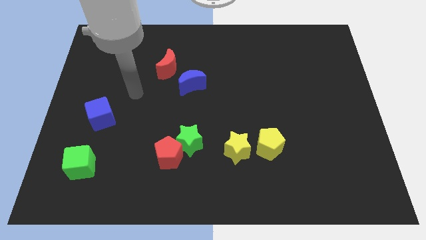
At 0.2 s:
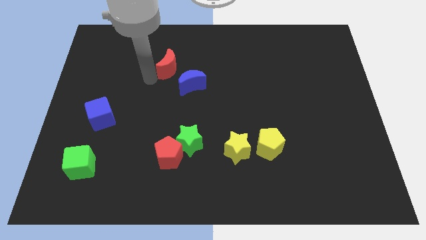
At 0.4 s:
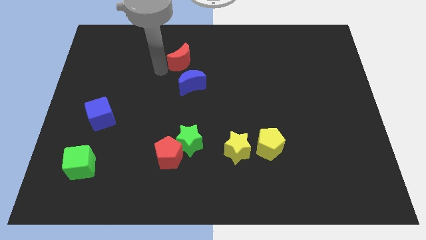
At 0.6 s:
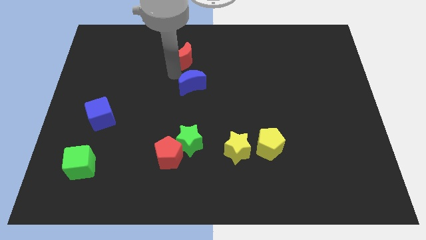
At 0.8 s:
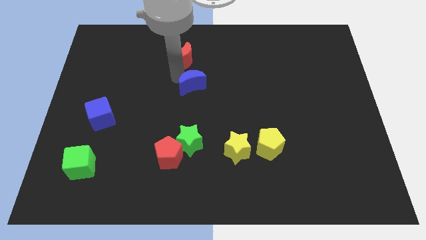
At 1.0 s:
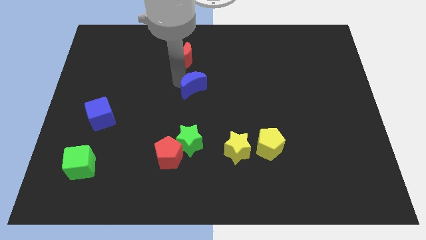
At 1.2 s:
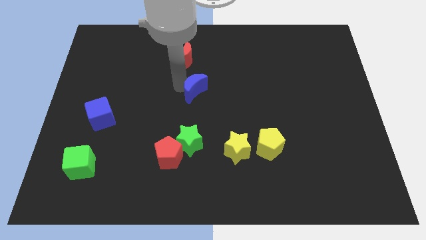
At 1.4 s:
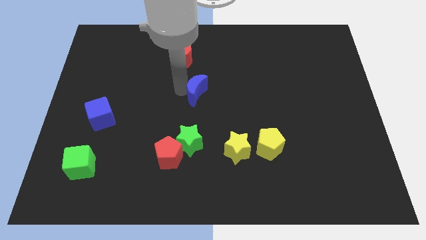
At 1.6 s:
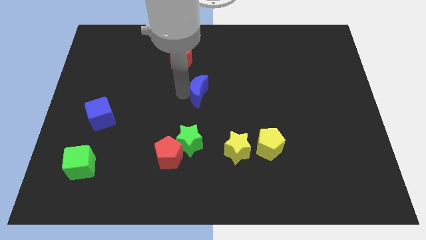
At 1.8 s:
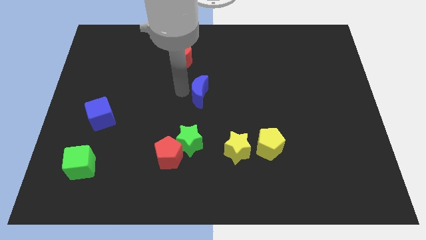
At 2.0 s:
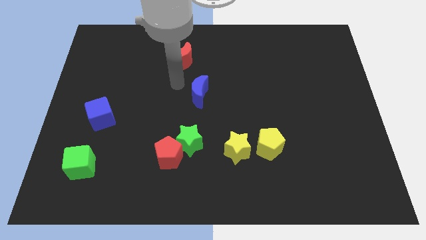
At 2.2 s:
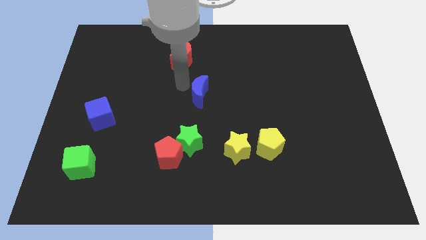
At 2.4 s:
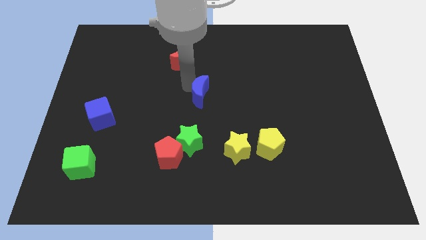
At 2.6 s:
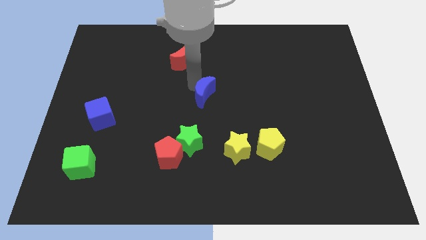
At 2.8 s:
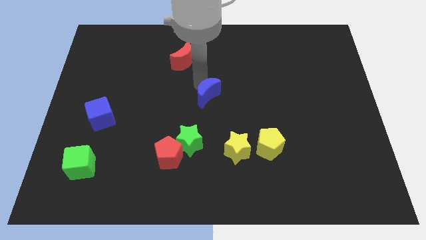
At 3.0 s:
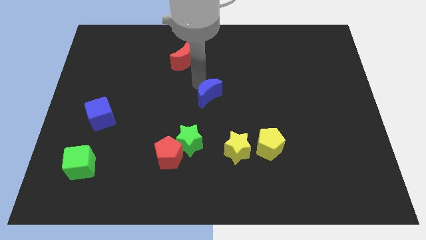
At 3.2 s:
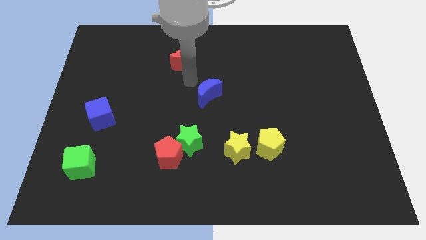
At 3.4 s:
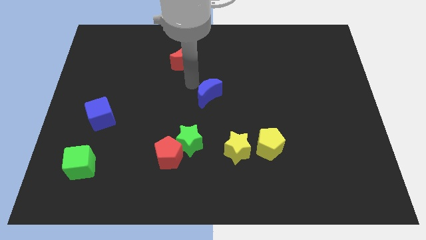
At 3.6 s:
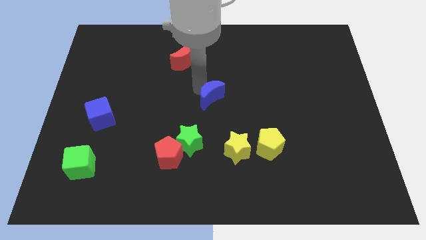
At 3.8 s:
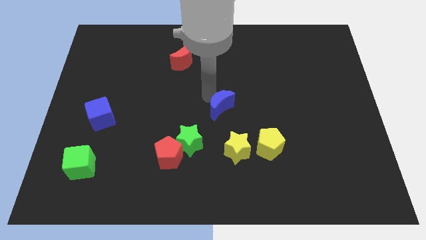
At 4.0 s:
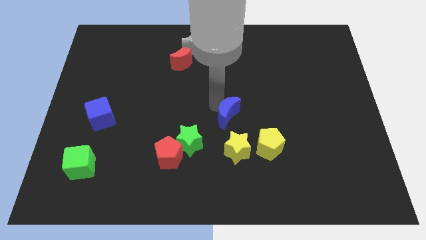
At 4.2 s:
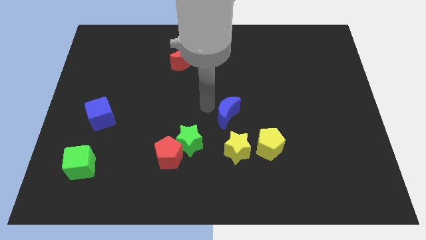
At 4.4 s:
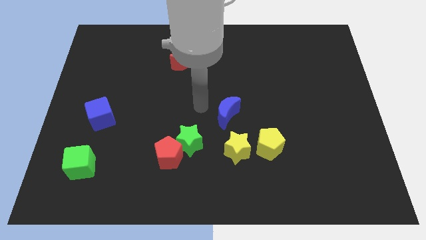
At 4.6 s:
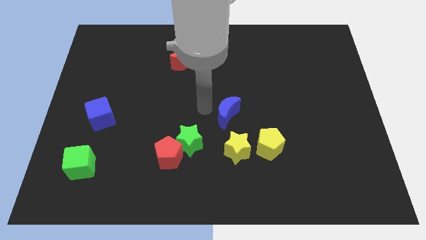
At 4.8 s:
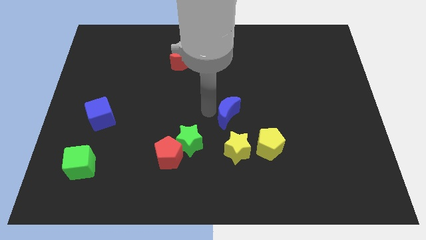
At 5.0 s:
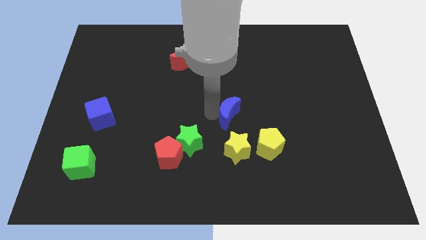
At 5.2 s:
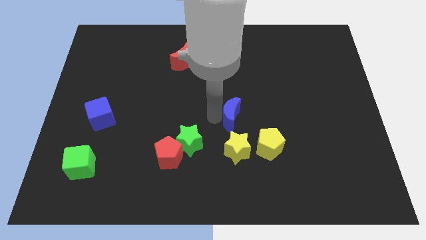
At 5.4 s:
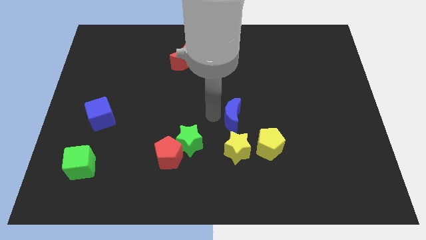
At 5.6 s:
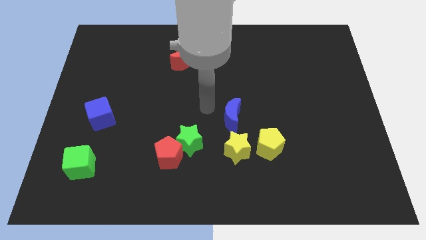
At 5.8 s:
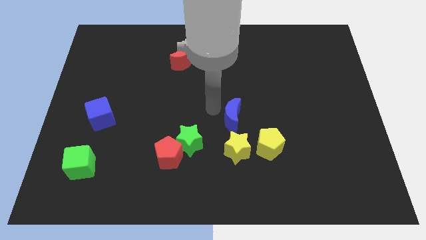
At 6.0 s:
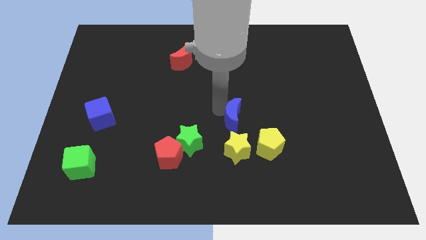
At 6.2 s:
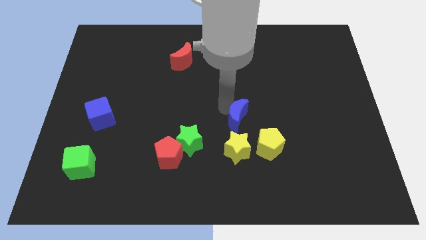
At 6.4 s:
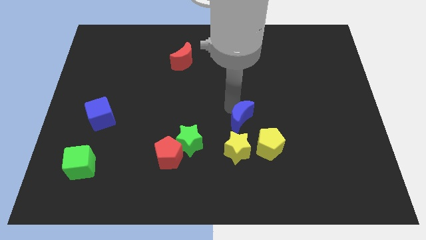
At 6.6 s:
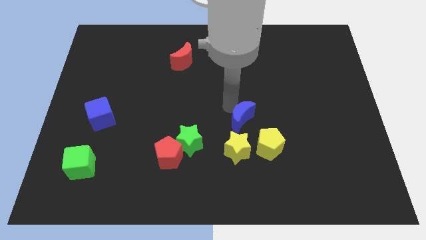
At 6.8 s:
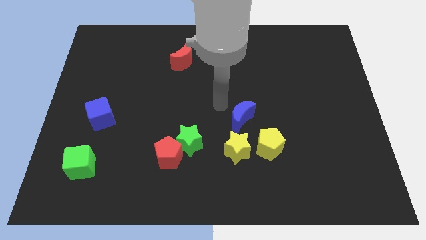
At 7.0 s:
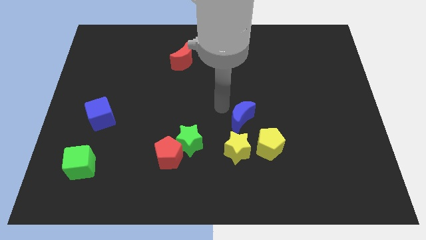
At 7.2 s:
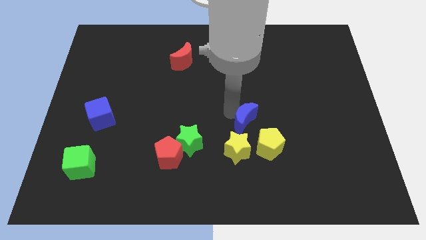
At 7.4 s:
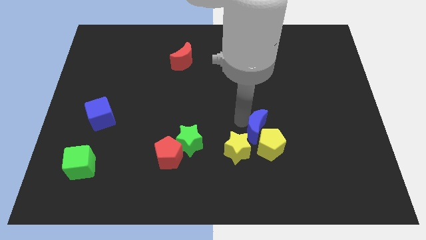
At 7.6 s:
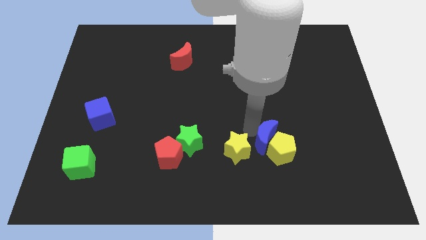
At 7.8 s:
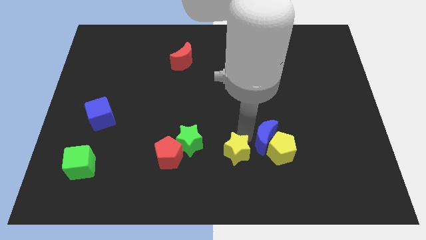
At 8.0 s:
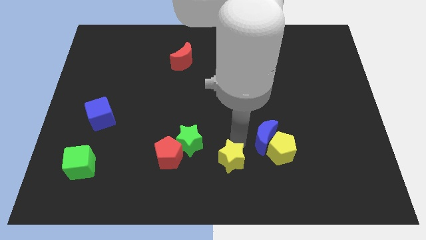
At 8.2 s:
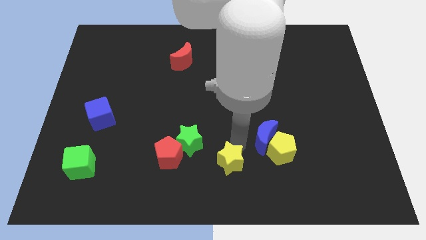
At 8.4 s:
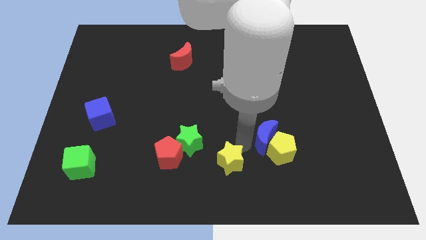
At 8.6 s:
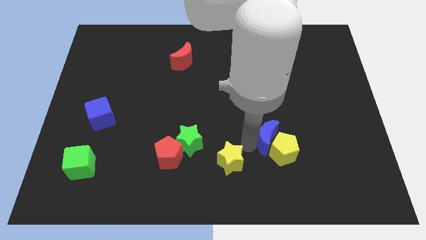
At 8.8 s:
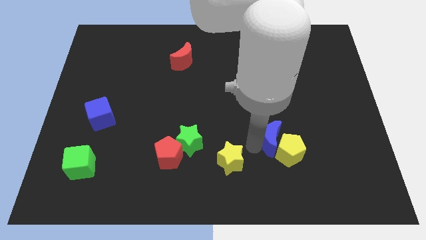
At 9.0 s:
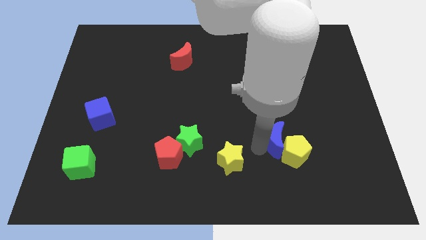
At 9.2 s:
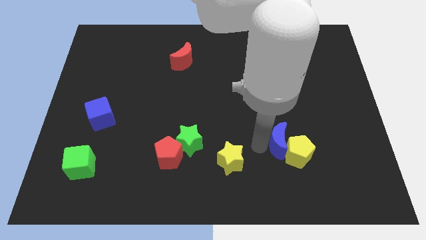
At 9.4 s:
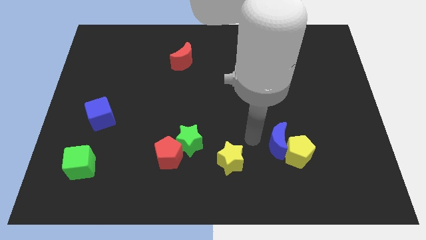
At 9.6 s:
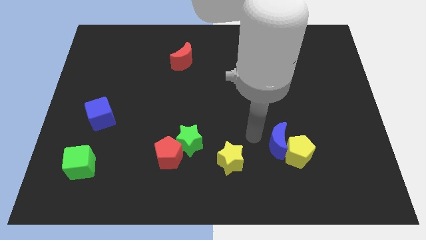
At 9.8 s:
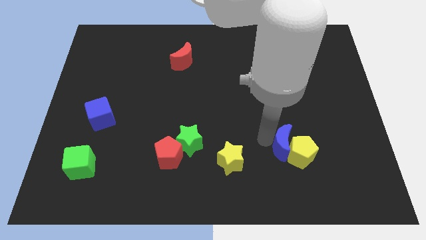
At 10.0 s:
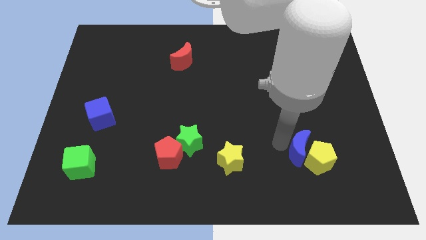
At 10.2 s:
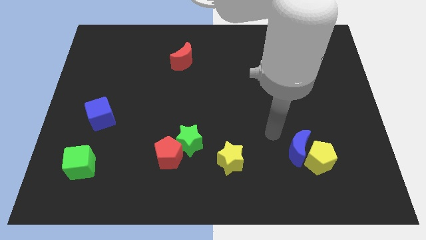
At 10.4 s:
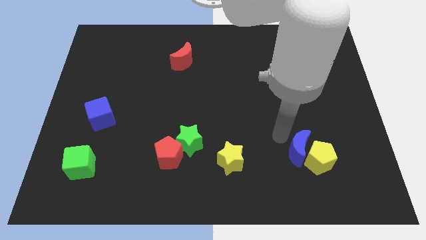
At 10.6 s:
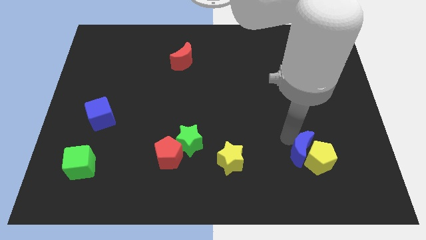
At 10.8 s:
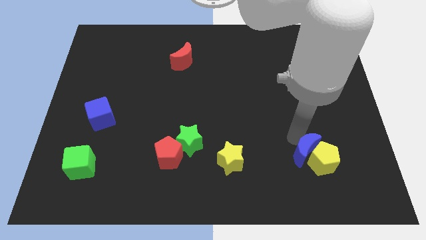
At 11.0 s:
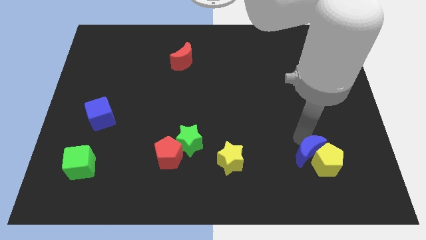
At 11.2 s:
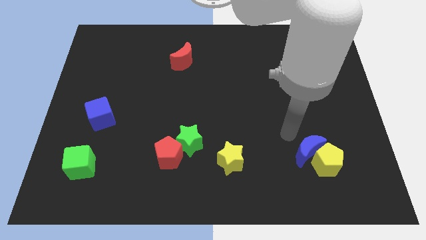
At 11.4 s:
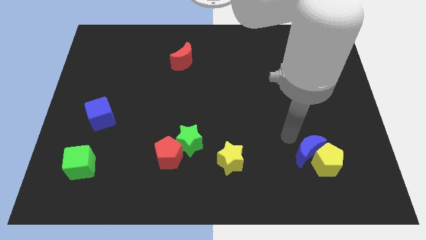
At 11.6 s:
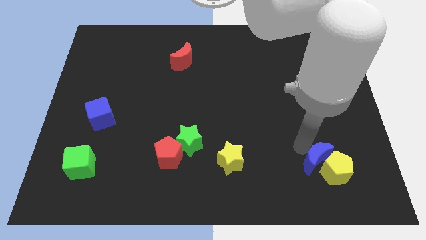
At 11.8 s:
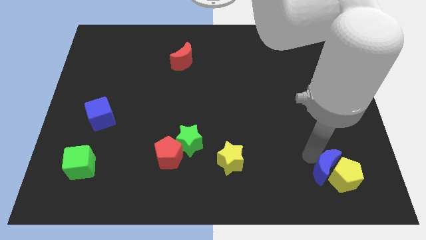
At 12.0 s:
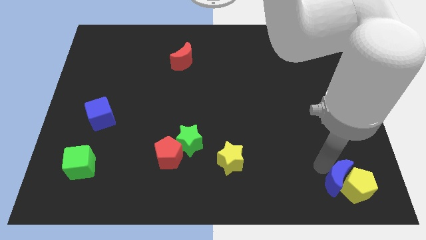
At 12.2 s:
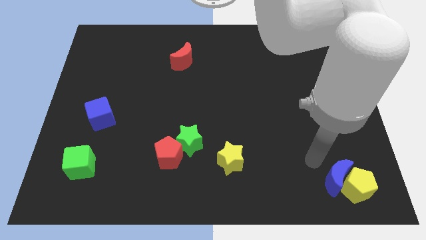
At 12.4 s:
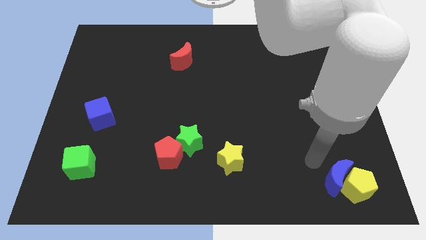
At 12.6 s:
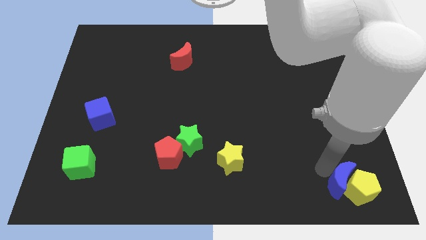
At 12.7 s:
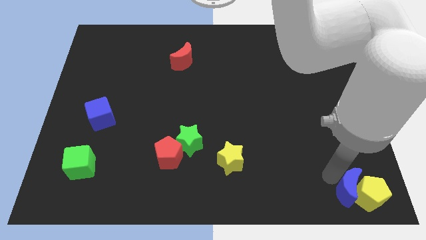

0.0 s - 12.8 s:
slide the blue moon to the lower right corner

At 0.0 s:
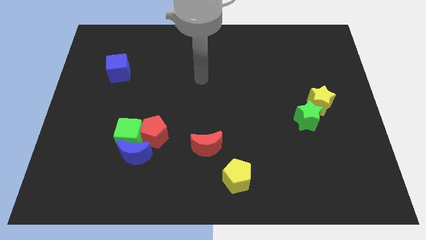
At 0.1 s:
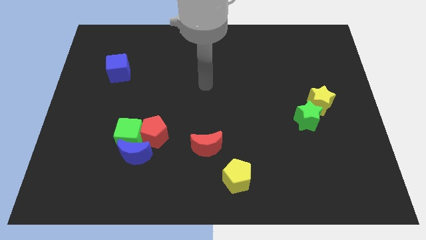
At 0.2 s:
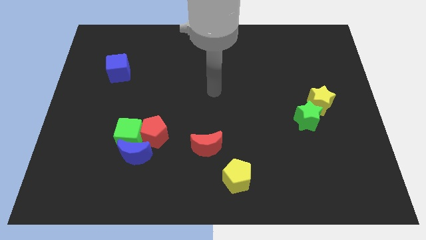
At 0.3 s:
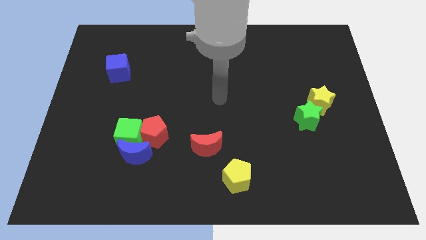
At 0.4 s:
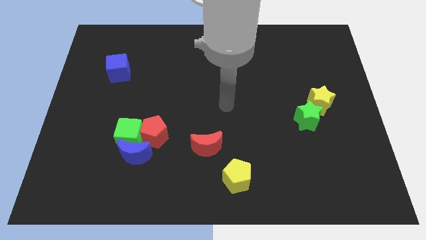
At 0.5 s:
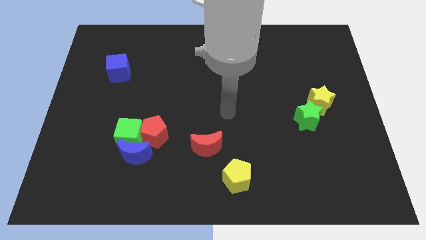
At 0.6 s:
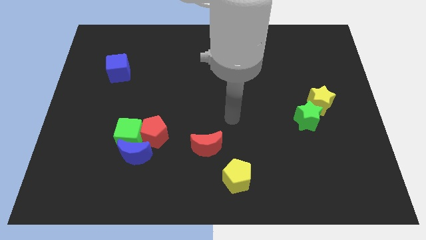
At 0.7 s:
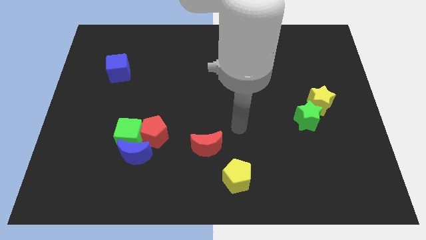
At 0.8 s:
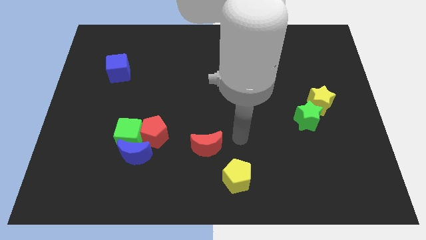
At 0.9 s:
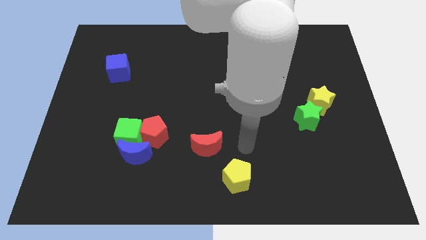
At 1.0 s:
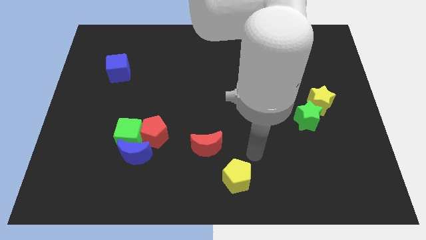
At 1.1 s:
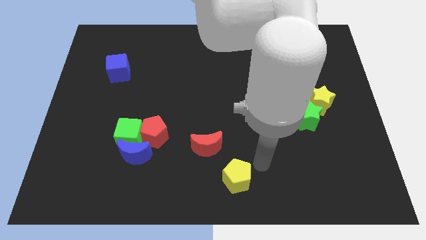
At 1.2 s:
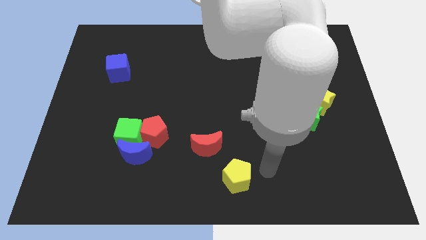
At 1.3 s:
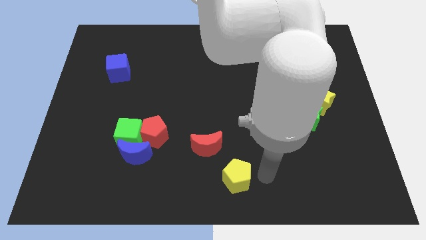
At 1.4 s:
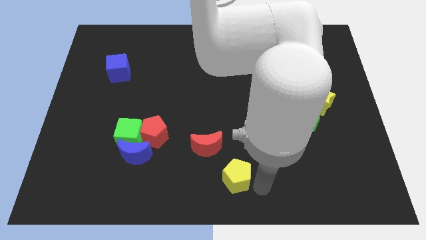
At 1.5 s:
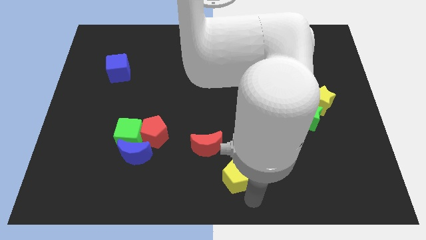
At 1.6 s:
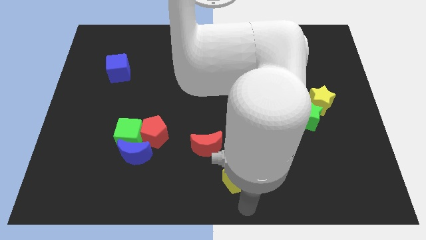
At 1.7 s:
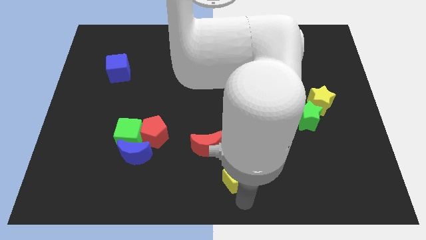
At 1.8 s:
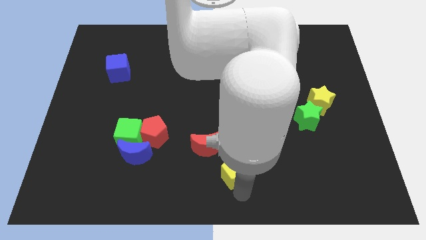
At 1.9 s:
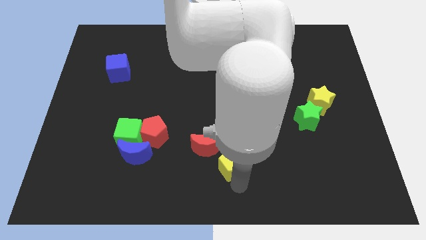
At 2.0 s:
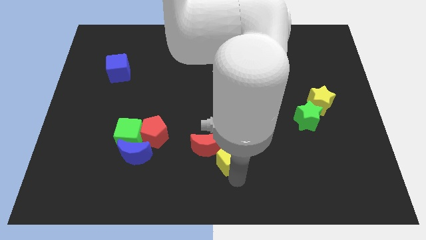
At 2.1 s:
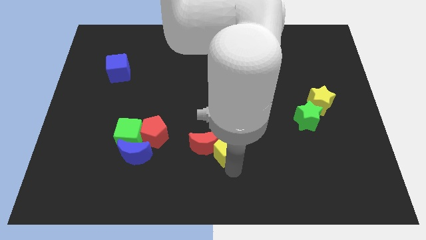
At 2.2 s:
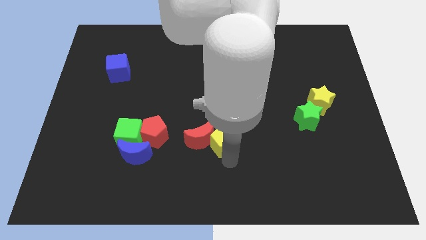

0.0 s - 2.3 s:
slide the yellow pentagon to the middle
